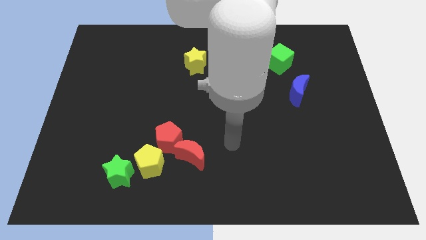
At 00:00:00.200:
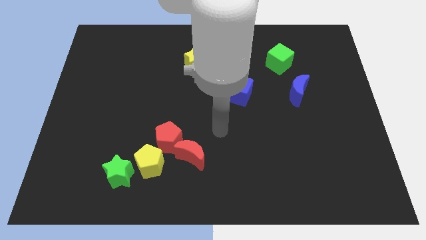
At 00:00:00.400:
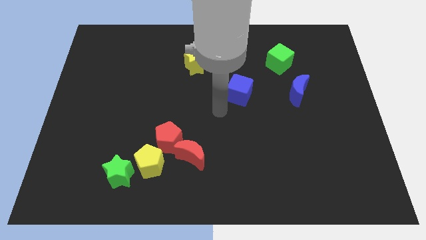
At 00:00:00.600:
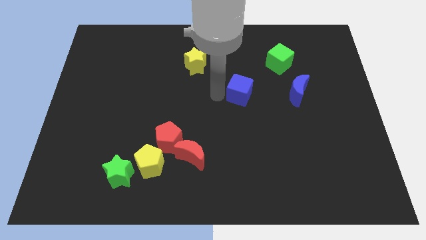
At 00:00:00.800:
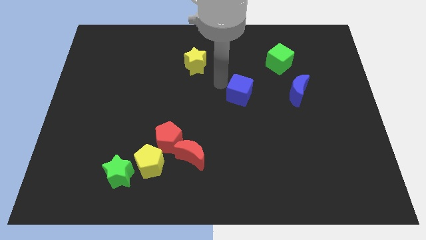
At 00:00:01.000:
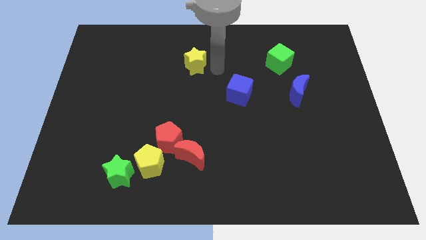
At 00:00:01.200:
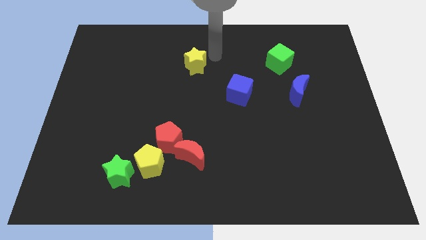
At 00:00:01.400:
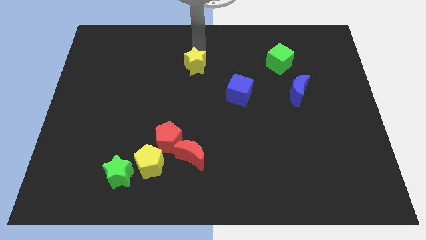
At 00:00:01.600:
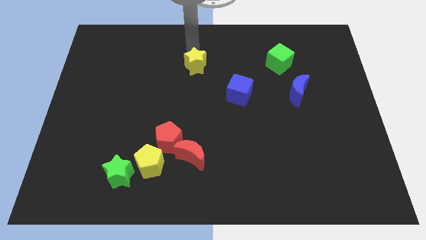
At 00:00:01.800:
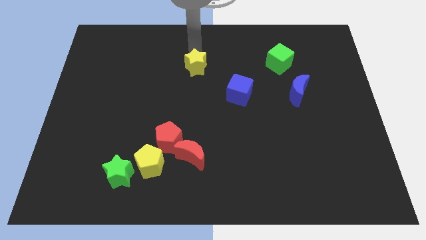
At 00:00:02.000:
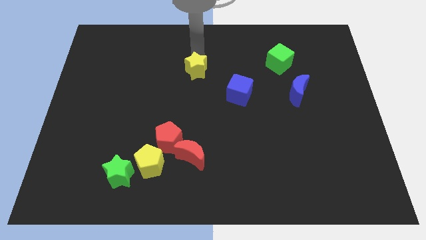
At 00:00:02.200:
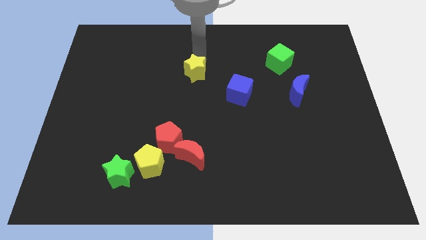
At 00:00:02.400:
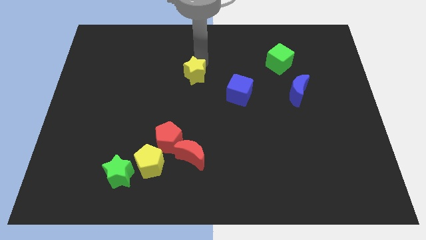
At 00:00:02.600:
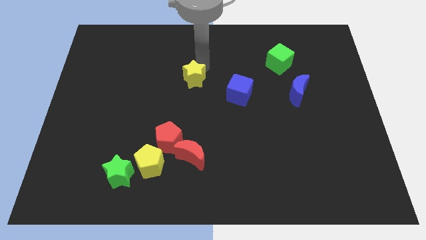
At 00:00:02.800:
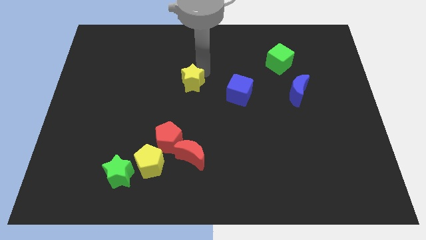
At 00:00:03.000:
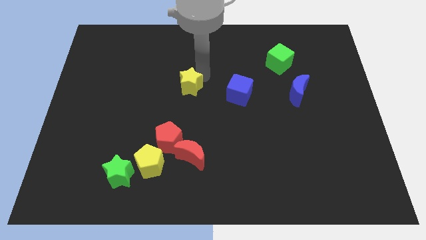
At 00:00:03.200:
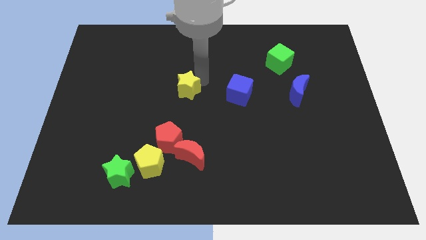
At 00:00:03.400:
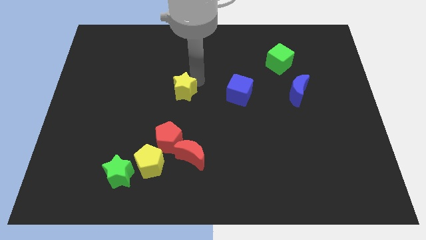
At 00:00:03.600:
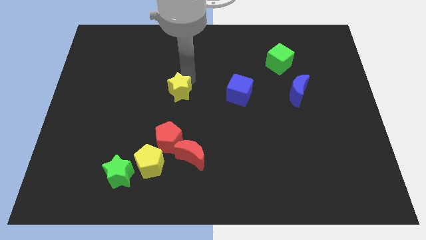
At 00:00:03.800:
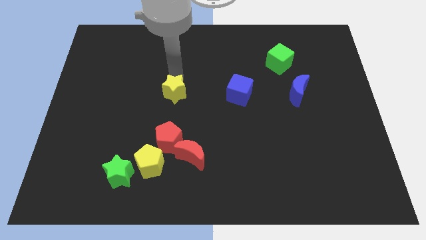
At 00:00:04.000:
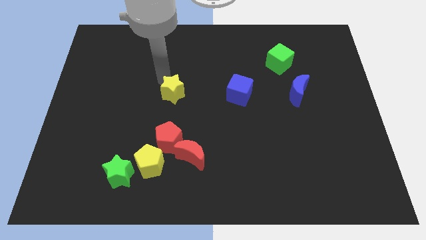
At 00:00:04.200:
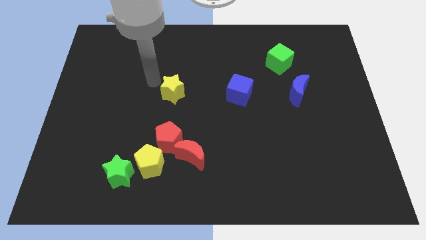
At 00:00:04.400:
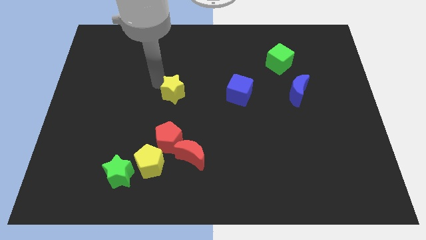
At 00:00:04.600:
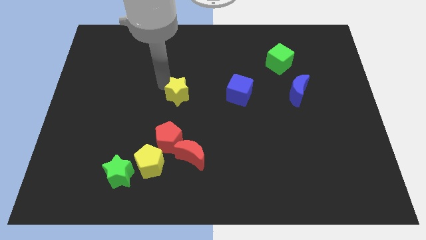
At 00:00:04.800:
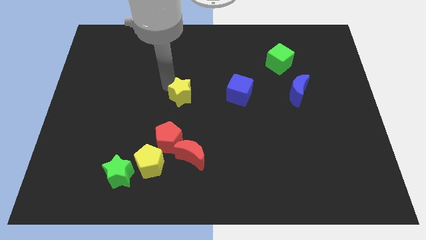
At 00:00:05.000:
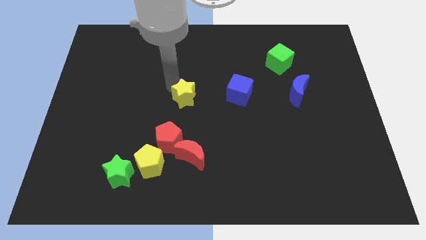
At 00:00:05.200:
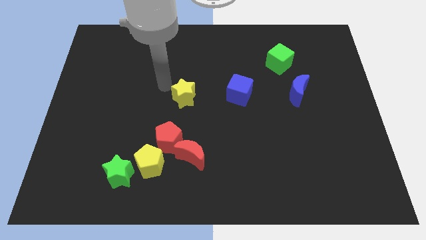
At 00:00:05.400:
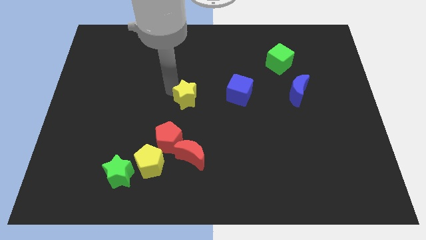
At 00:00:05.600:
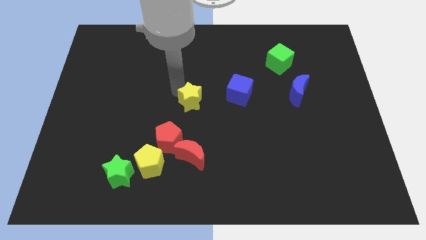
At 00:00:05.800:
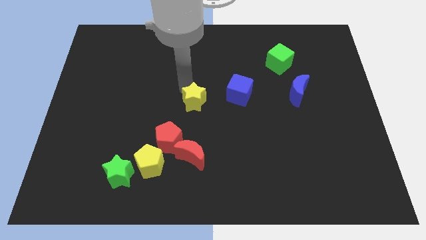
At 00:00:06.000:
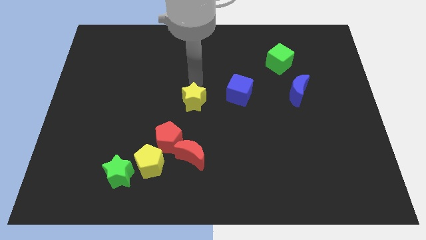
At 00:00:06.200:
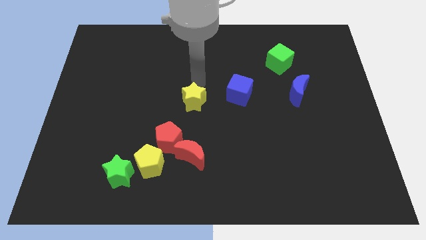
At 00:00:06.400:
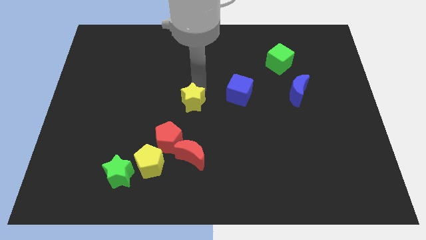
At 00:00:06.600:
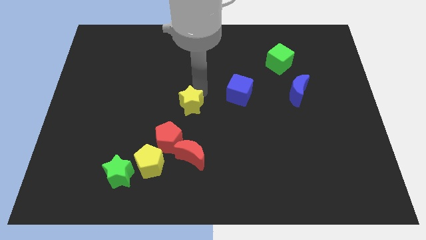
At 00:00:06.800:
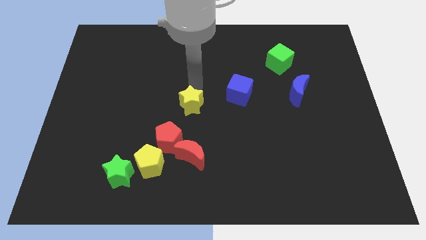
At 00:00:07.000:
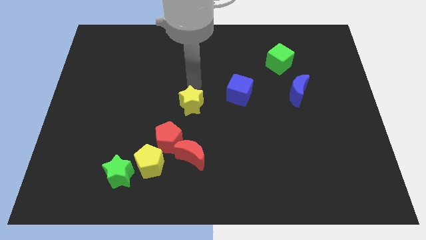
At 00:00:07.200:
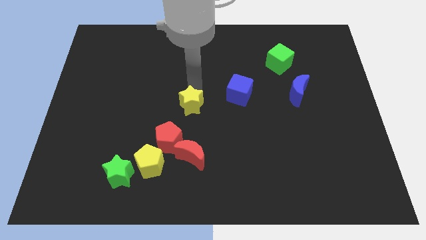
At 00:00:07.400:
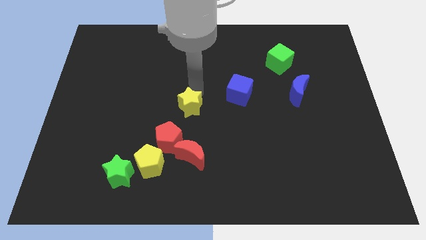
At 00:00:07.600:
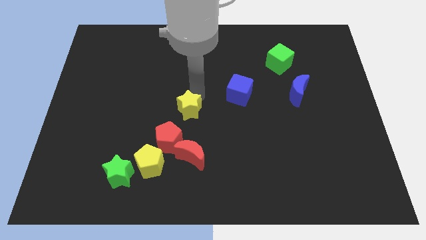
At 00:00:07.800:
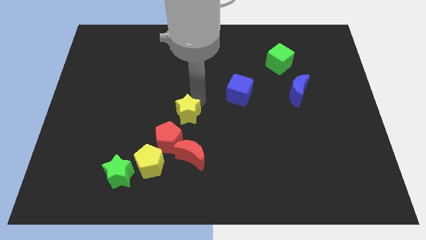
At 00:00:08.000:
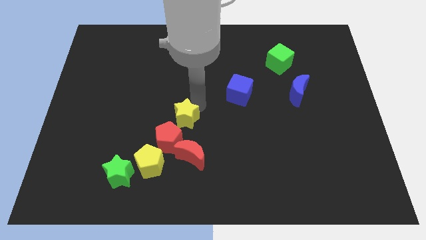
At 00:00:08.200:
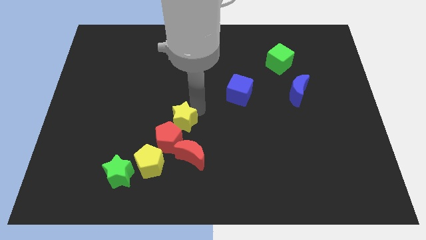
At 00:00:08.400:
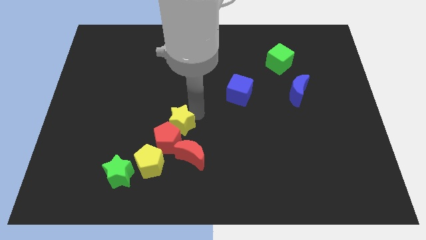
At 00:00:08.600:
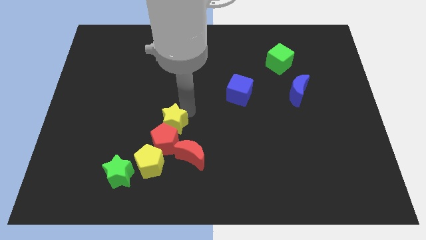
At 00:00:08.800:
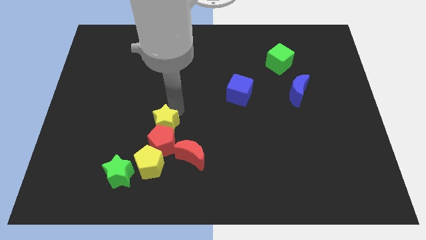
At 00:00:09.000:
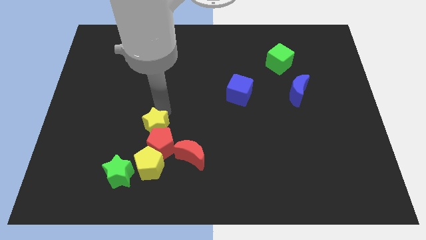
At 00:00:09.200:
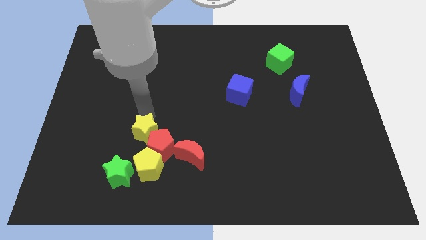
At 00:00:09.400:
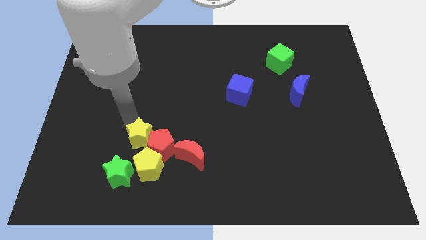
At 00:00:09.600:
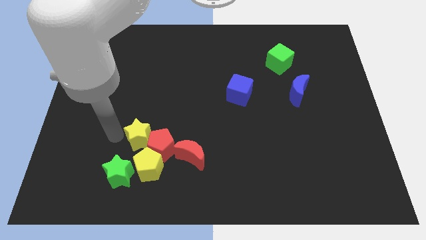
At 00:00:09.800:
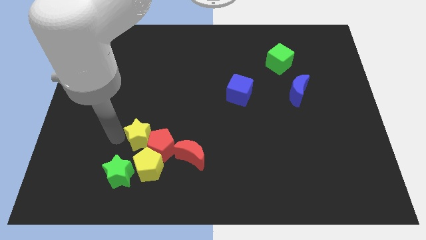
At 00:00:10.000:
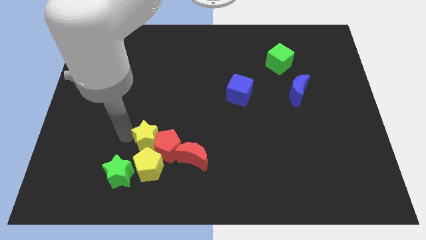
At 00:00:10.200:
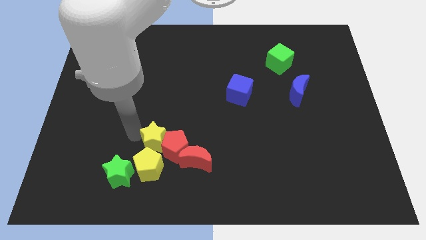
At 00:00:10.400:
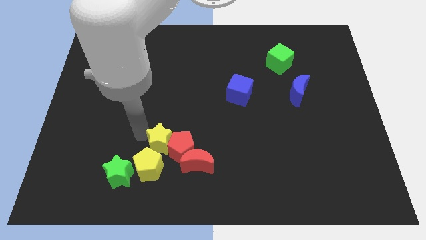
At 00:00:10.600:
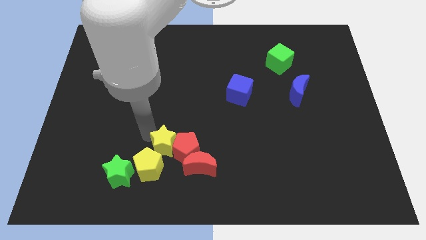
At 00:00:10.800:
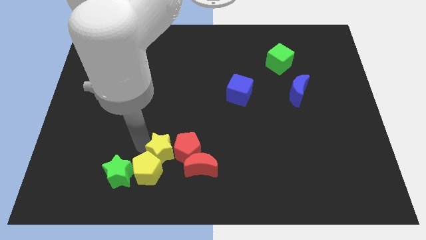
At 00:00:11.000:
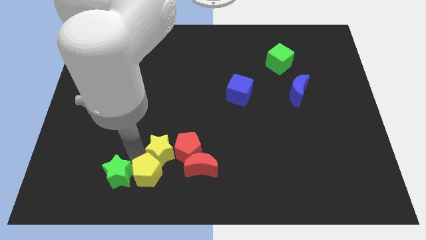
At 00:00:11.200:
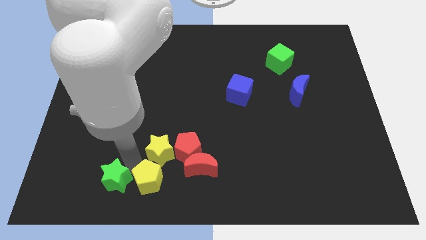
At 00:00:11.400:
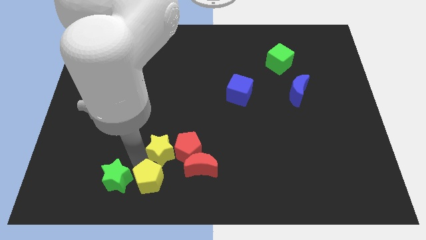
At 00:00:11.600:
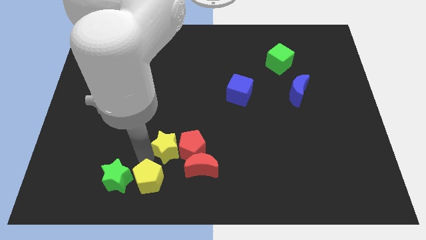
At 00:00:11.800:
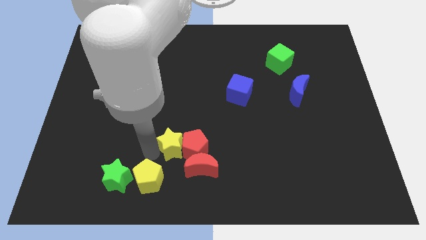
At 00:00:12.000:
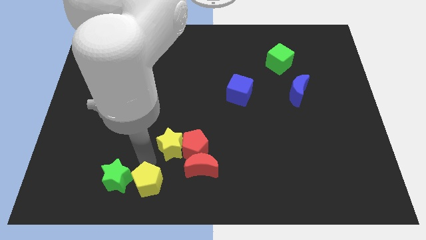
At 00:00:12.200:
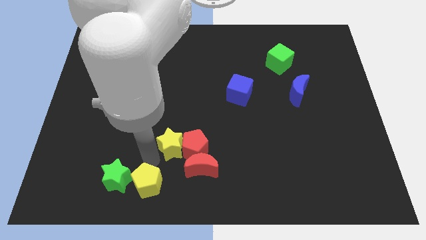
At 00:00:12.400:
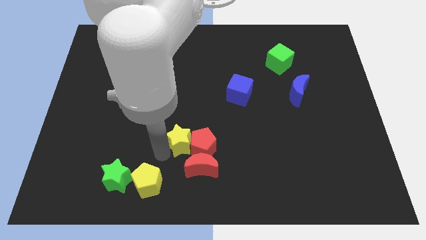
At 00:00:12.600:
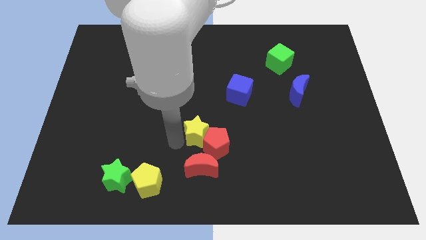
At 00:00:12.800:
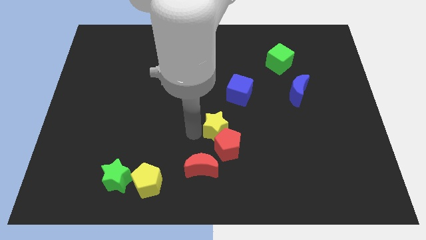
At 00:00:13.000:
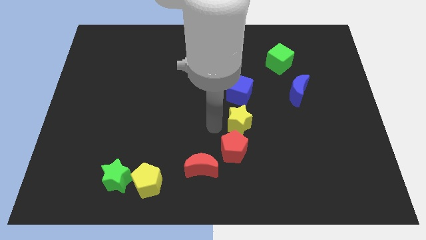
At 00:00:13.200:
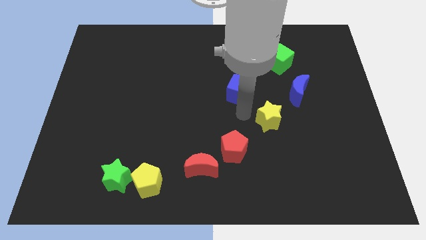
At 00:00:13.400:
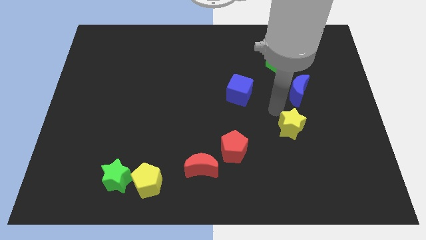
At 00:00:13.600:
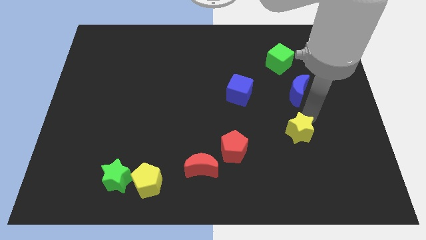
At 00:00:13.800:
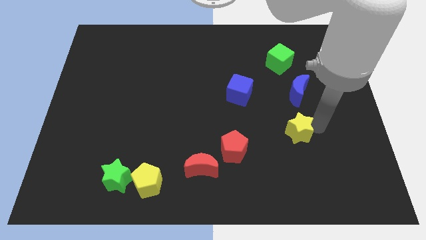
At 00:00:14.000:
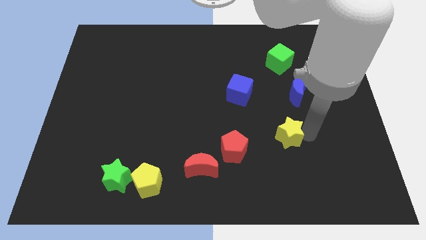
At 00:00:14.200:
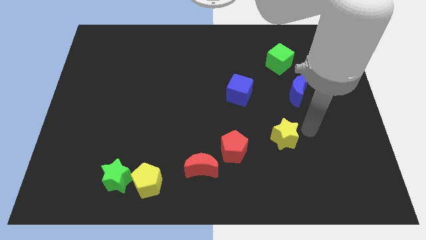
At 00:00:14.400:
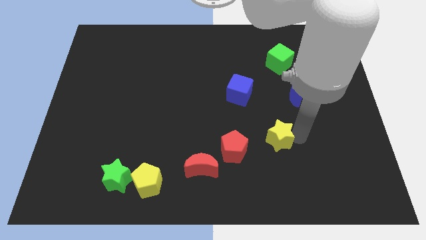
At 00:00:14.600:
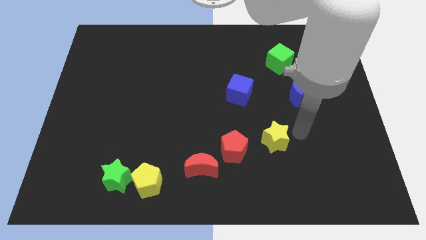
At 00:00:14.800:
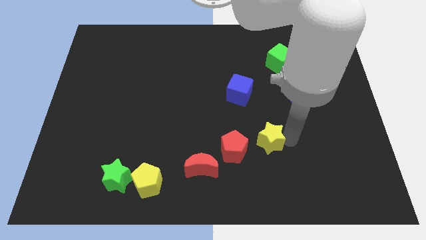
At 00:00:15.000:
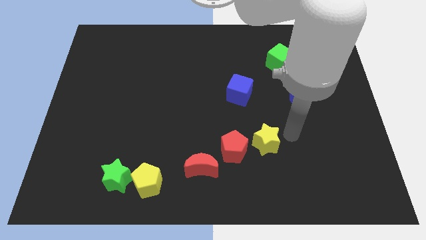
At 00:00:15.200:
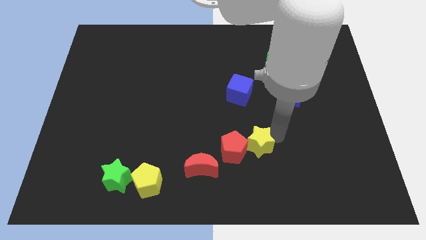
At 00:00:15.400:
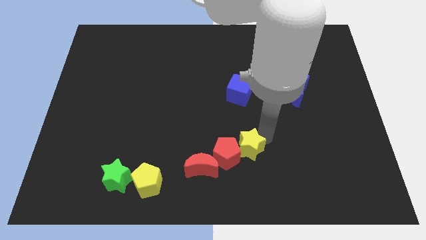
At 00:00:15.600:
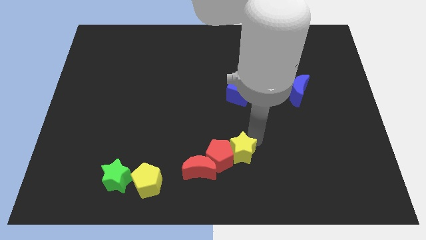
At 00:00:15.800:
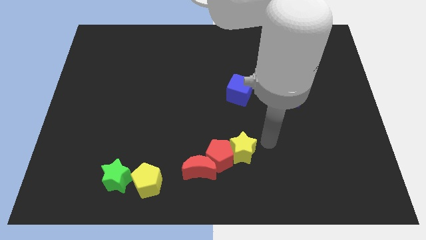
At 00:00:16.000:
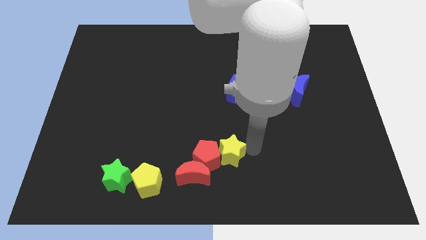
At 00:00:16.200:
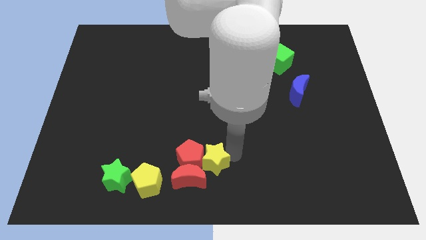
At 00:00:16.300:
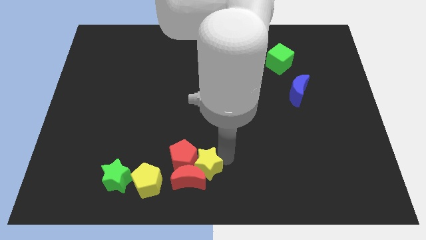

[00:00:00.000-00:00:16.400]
move the yellow star close to the red moon
